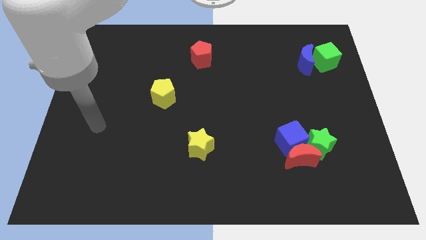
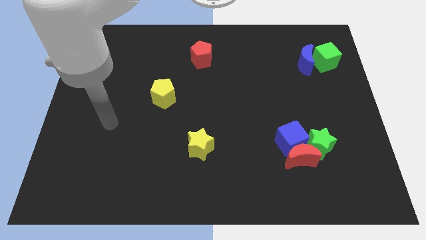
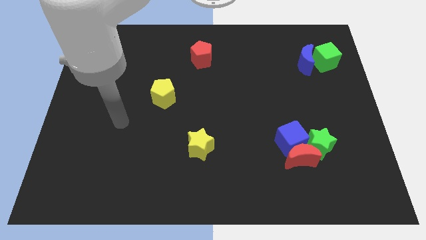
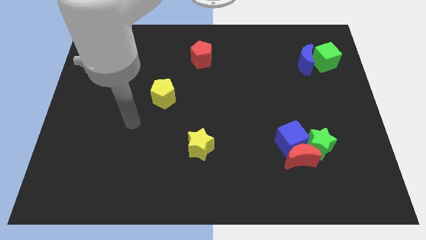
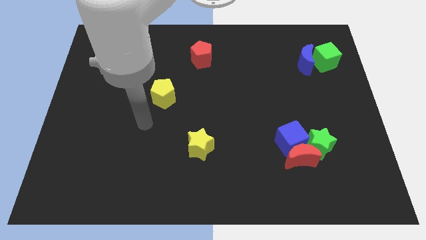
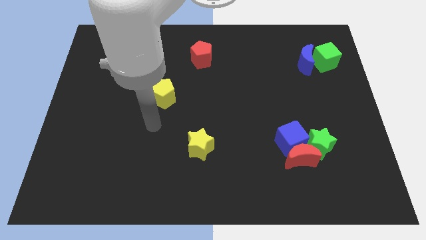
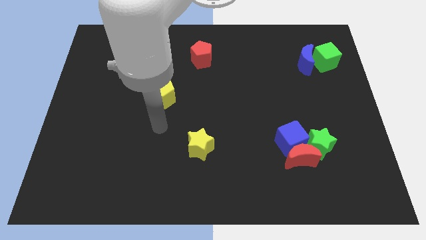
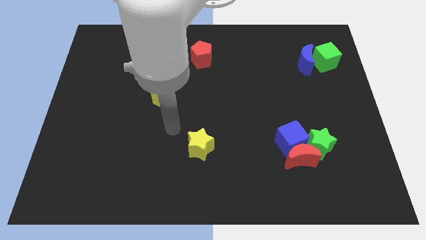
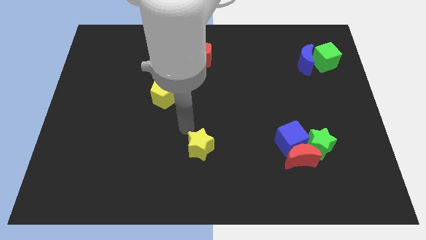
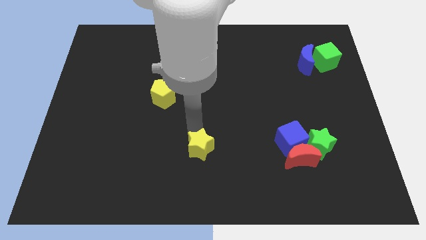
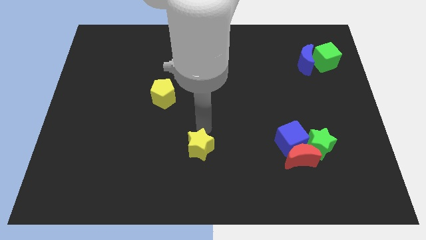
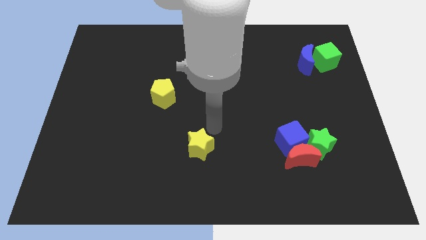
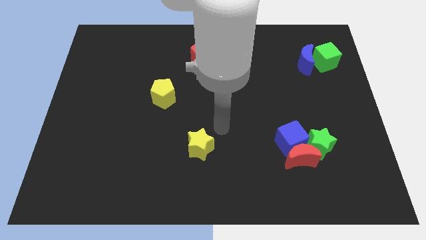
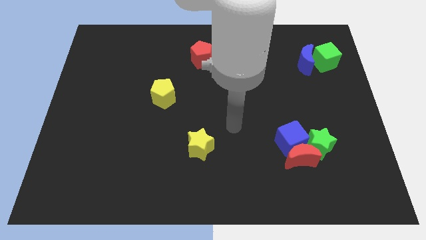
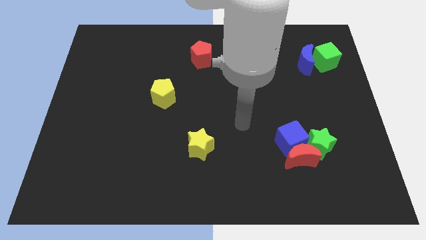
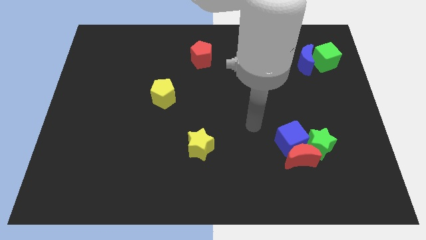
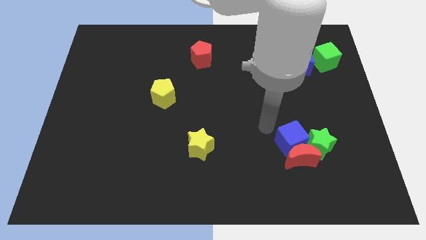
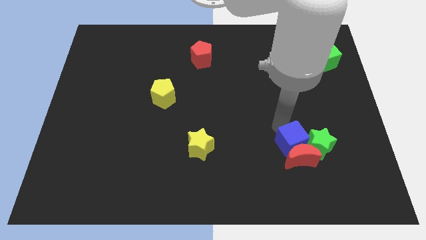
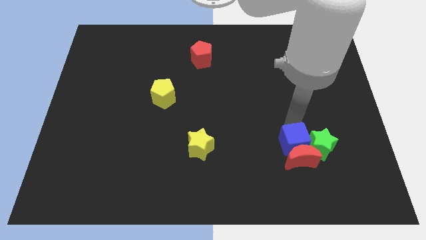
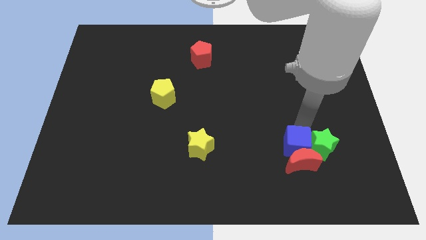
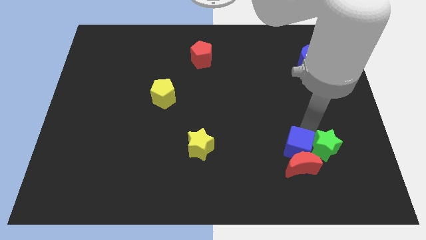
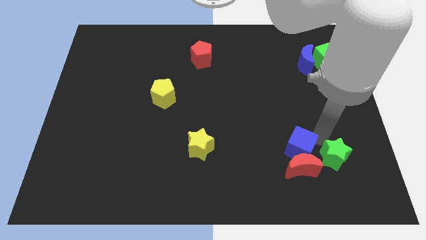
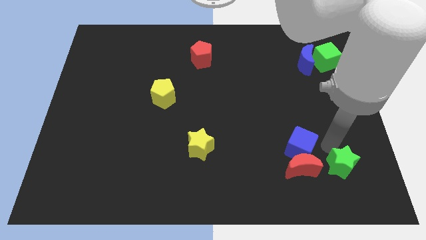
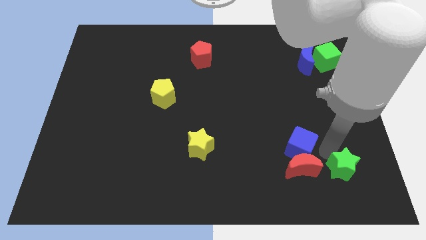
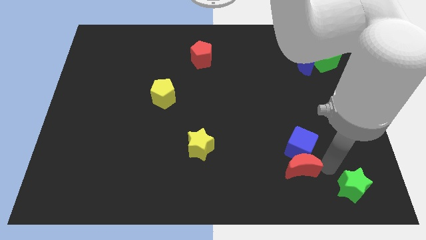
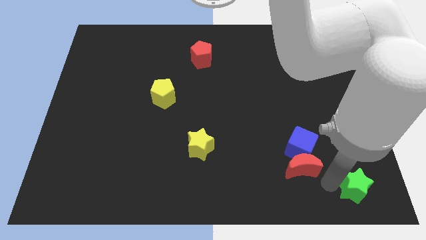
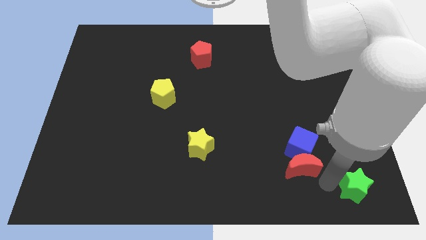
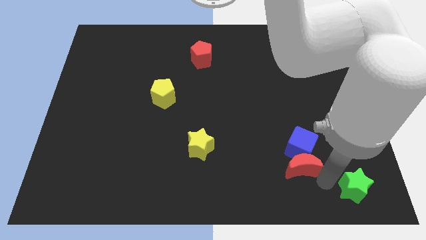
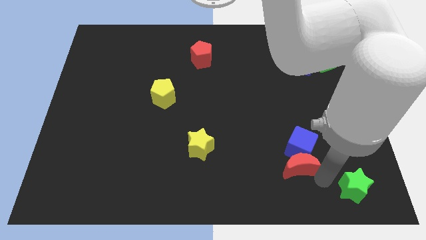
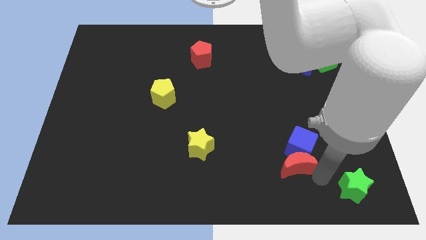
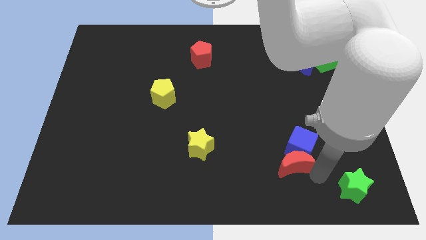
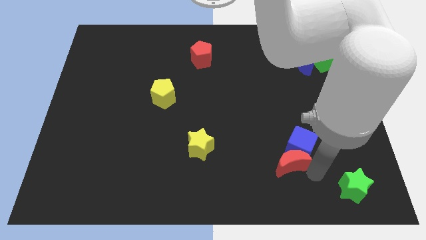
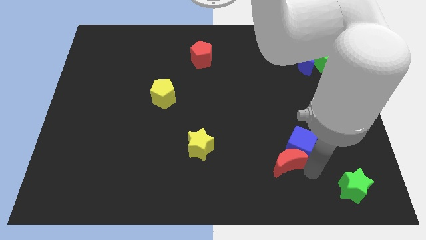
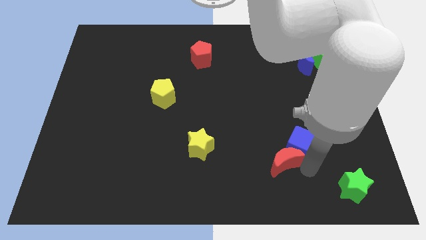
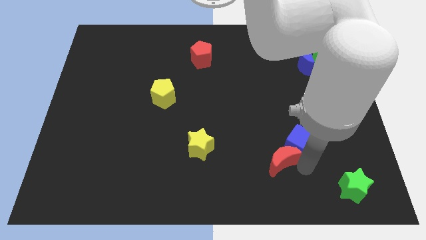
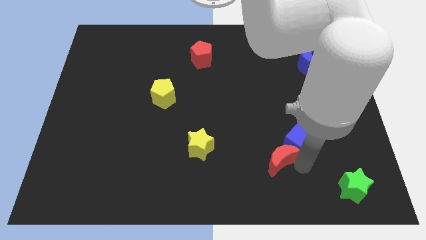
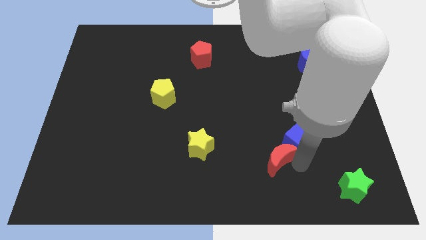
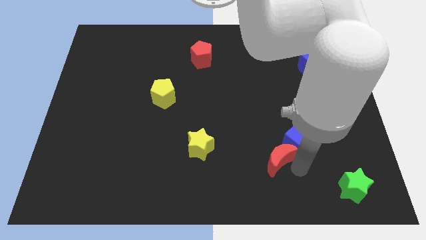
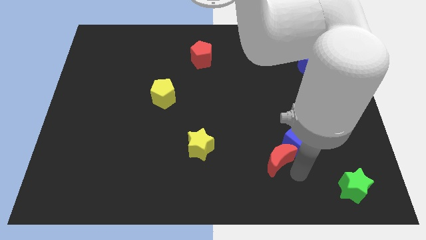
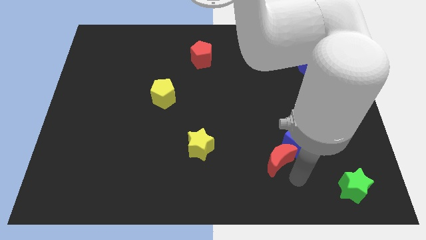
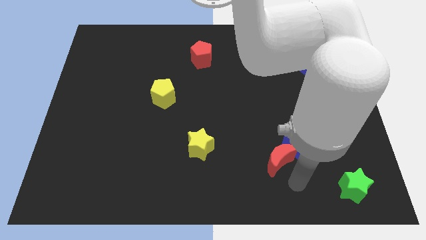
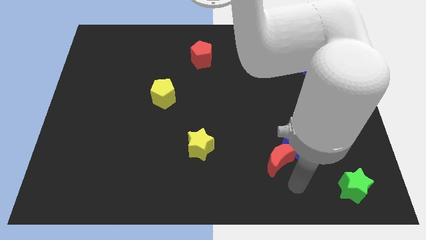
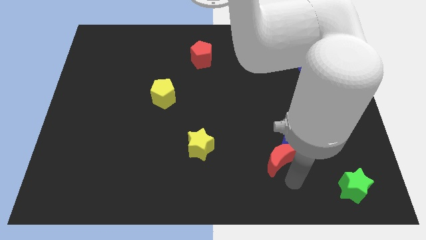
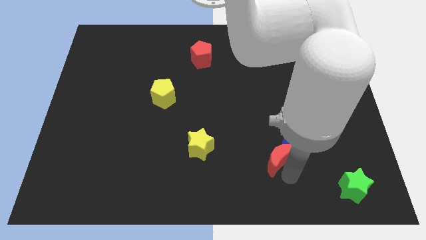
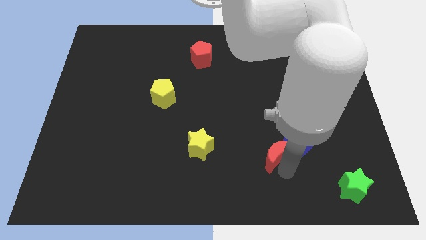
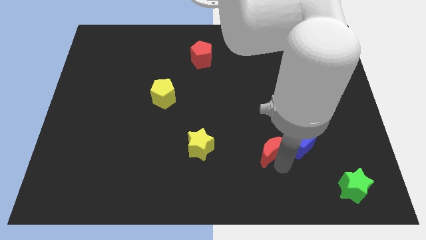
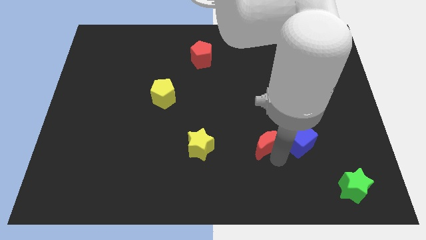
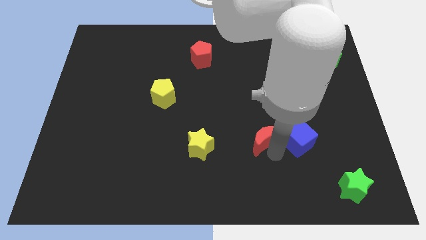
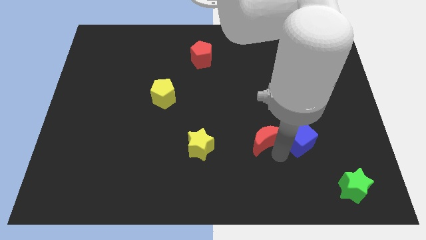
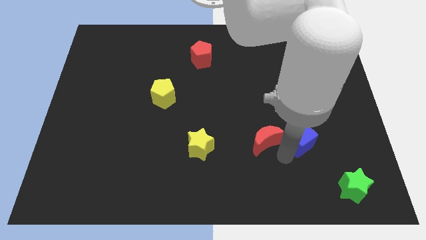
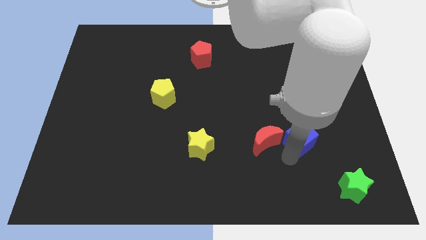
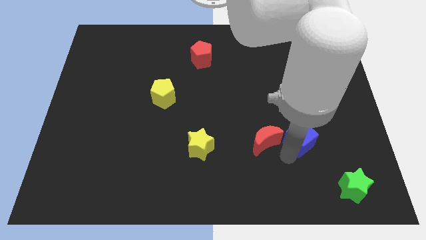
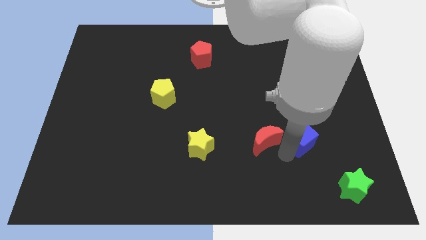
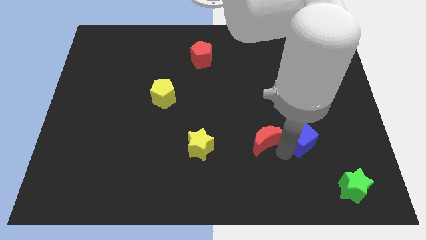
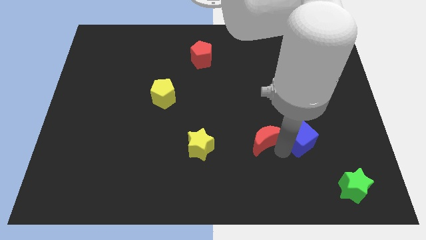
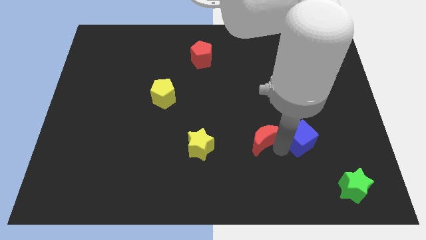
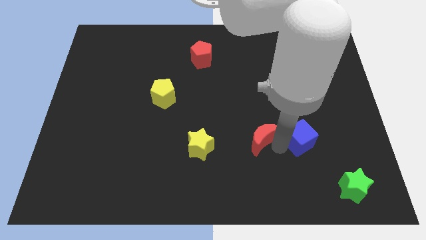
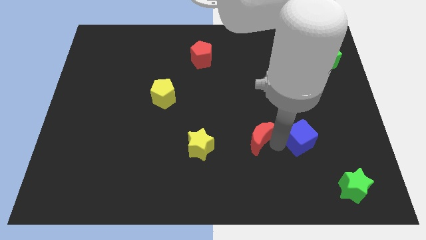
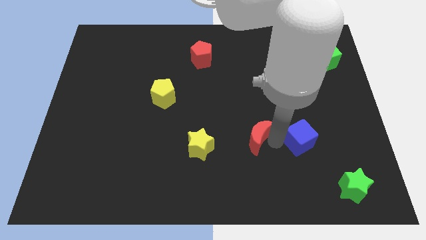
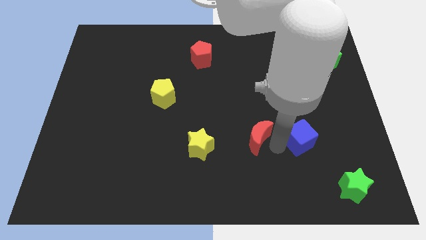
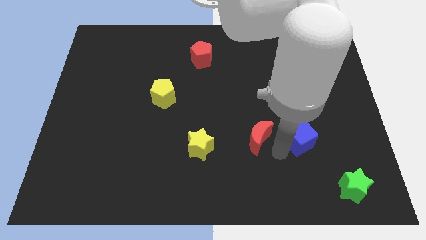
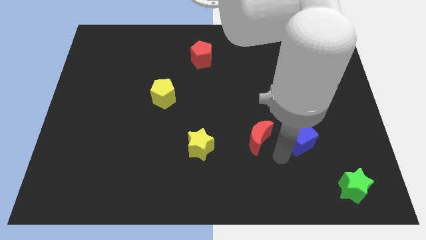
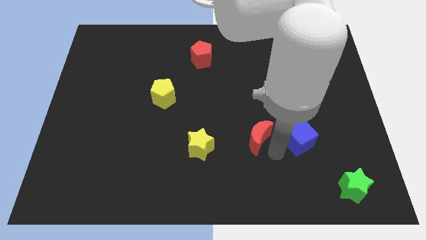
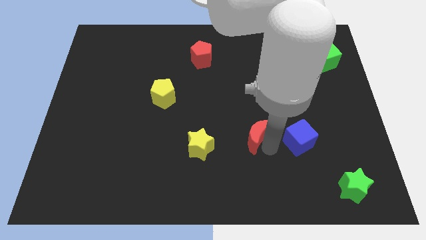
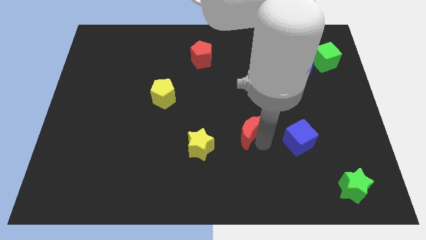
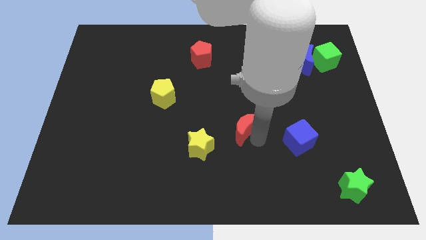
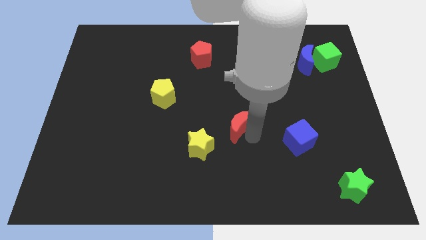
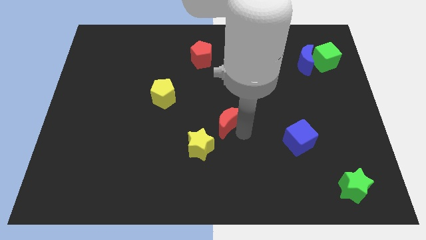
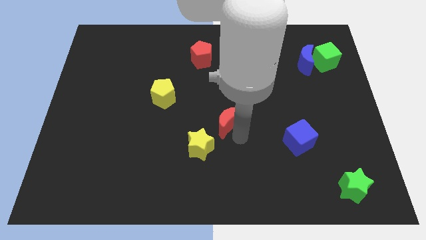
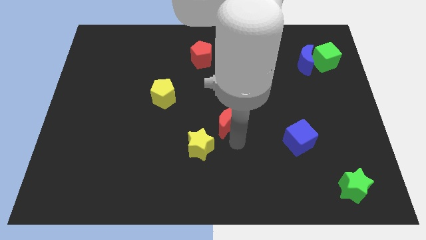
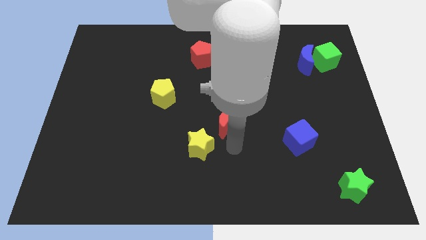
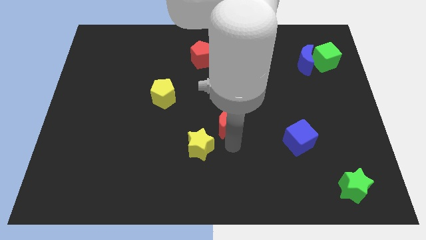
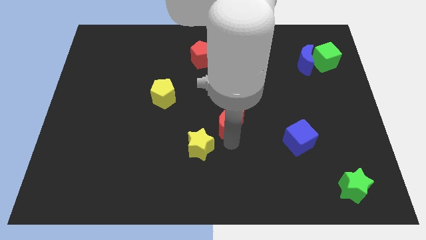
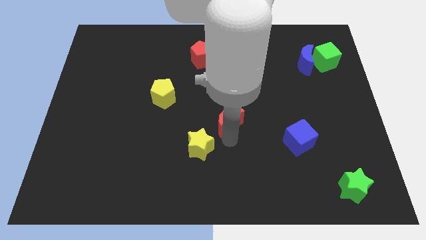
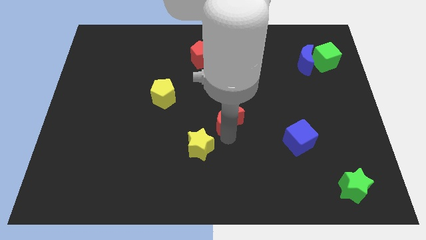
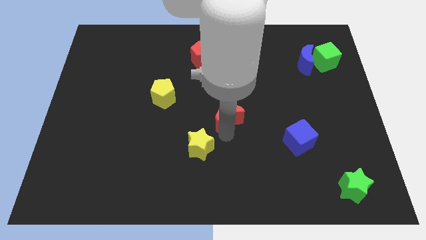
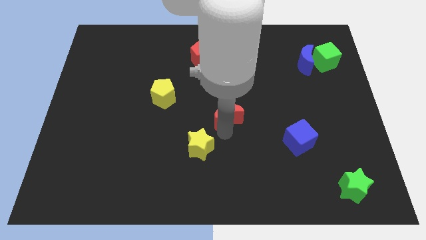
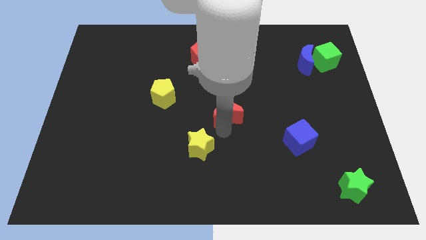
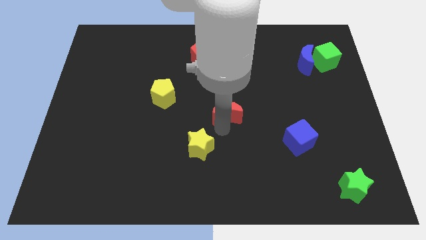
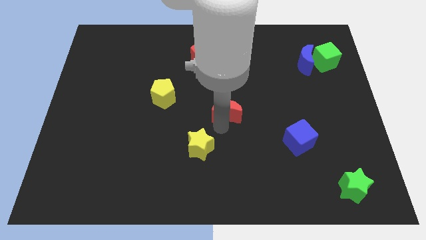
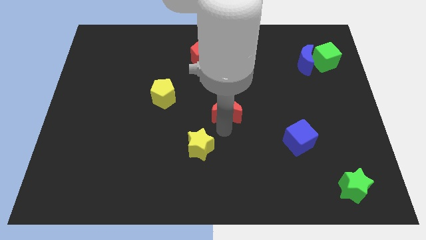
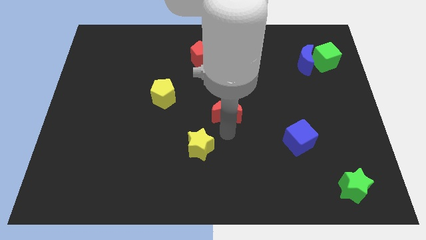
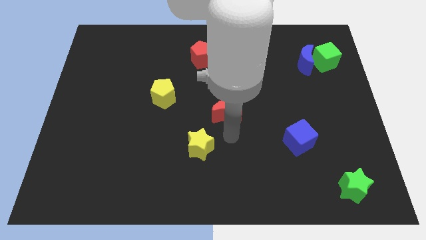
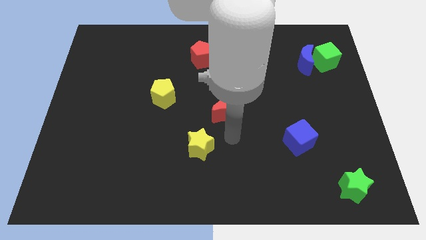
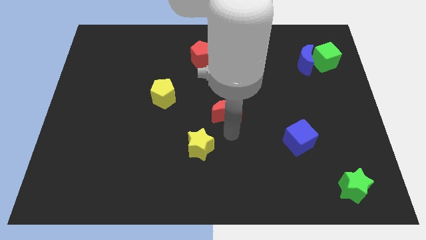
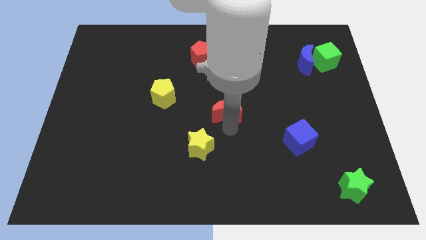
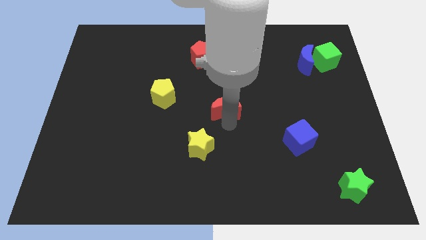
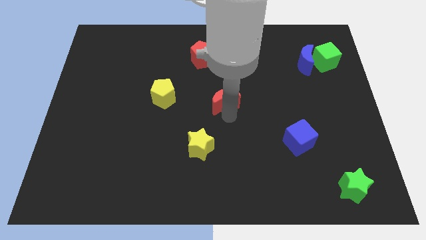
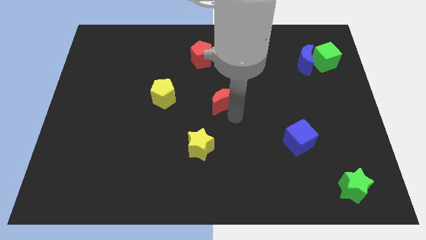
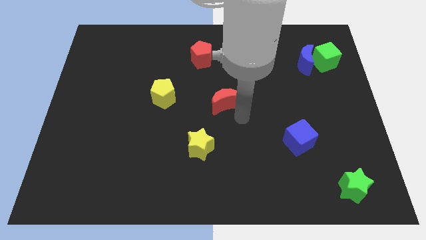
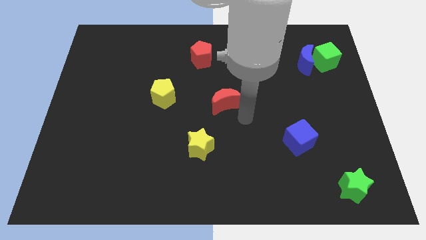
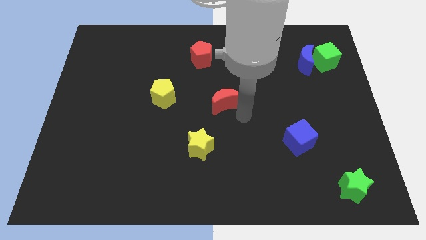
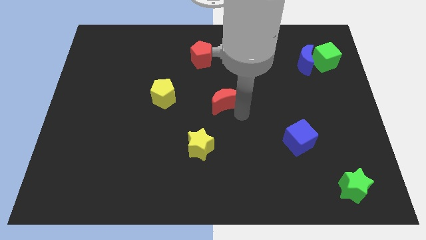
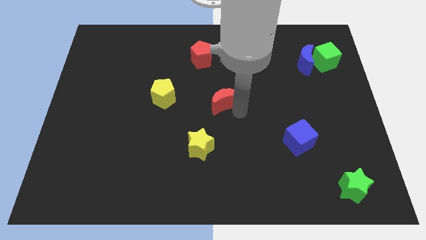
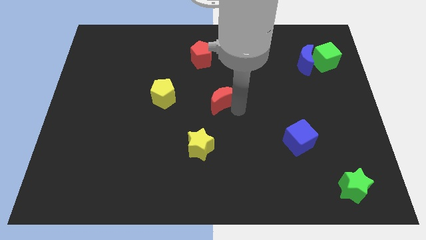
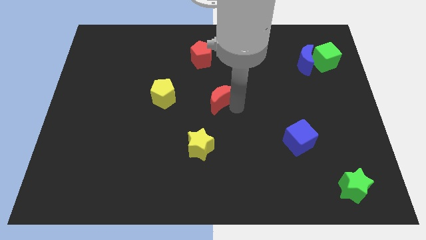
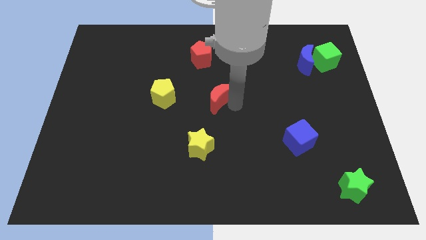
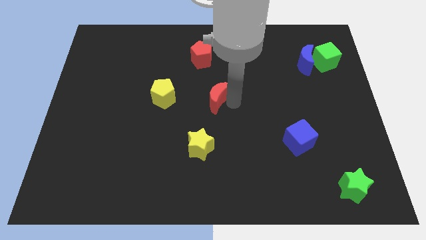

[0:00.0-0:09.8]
put the red moon to the bottom side of the red pentagon
